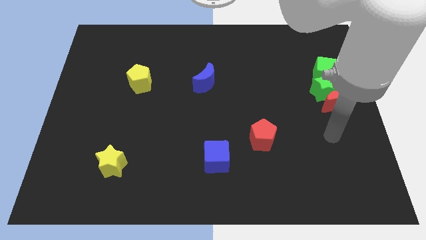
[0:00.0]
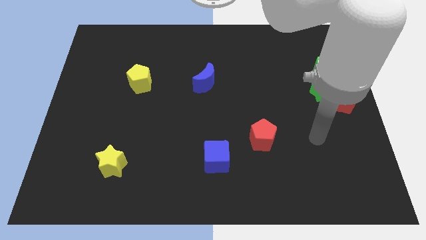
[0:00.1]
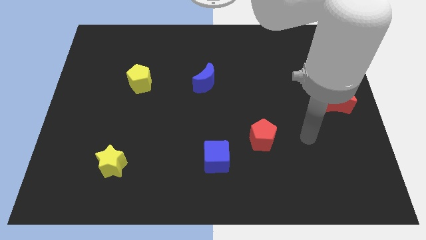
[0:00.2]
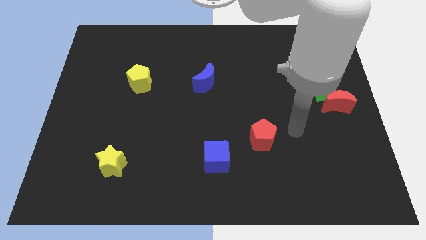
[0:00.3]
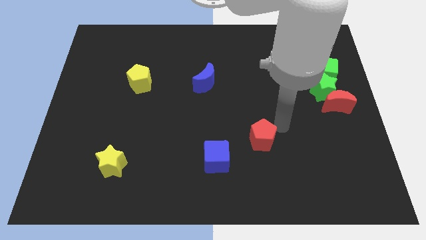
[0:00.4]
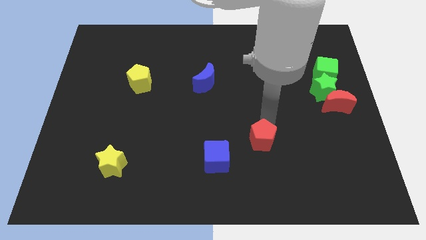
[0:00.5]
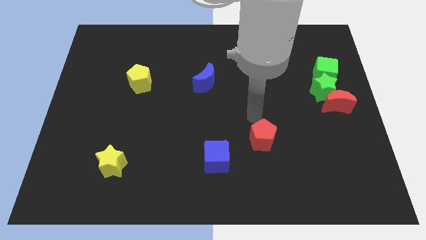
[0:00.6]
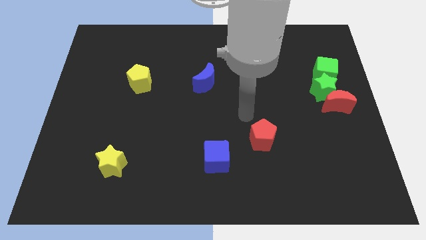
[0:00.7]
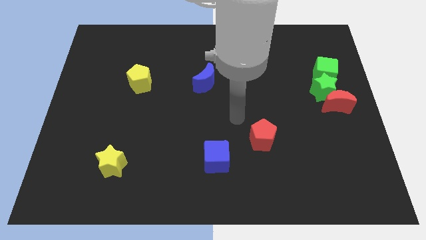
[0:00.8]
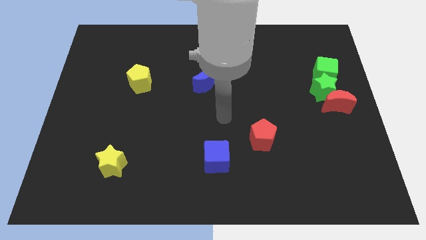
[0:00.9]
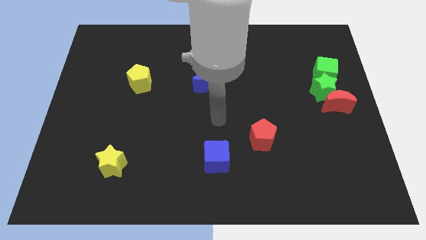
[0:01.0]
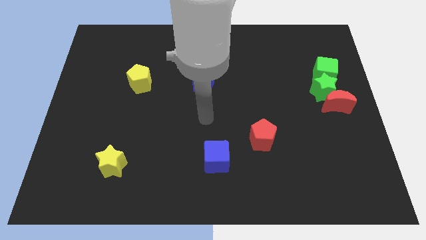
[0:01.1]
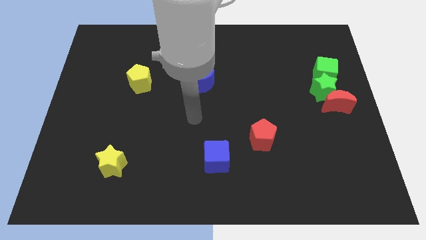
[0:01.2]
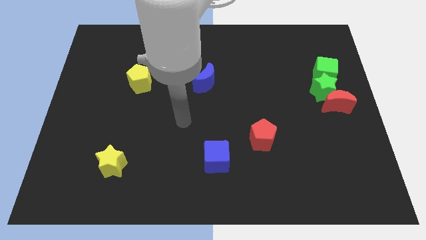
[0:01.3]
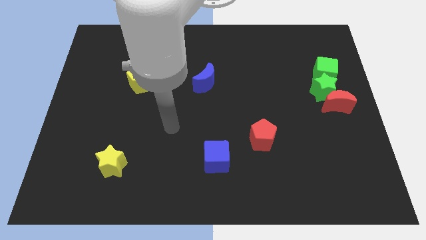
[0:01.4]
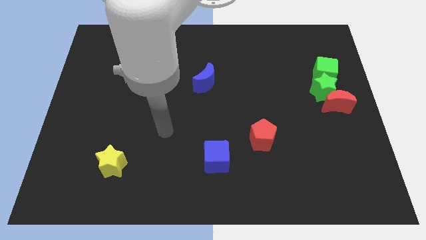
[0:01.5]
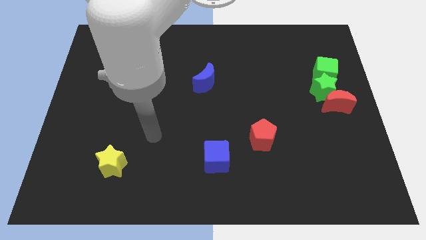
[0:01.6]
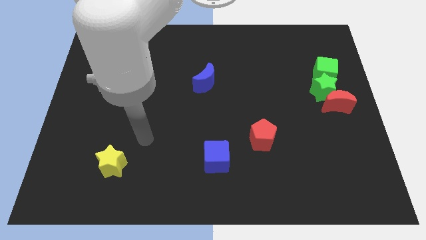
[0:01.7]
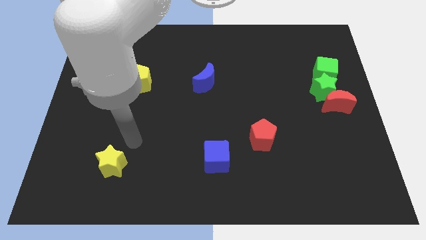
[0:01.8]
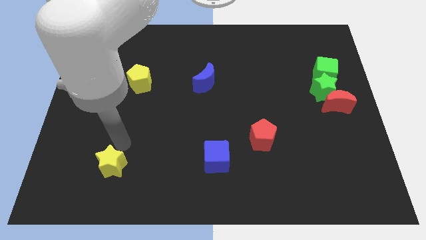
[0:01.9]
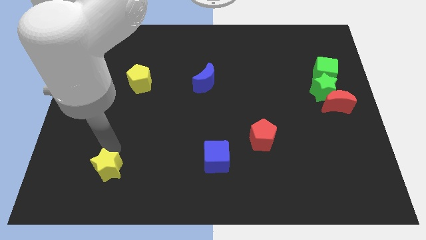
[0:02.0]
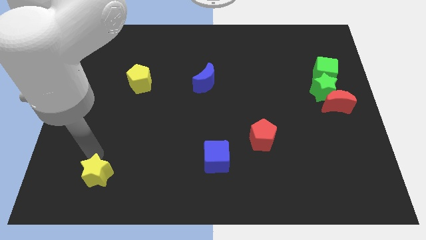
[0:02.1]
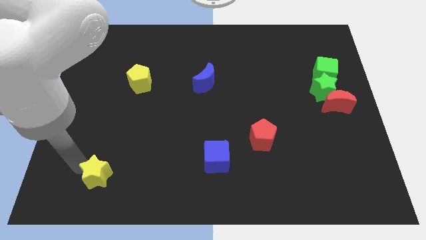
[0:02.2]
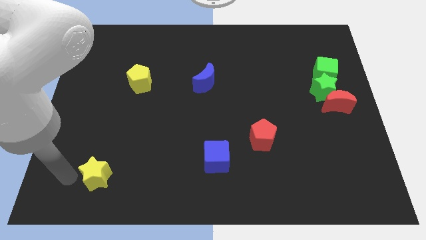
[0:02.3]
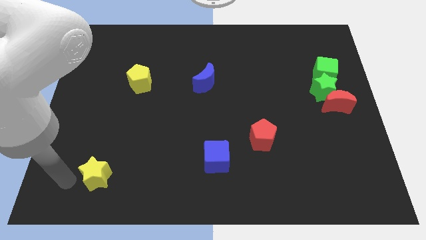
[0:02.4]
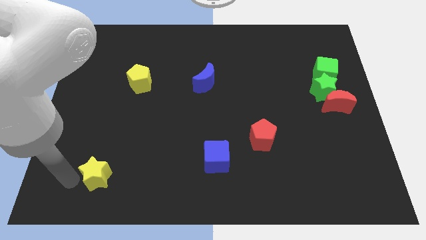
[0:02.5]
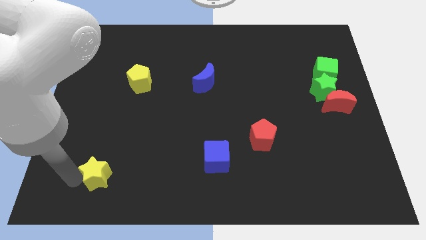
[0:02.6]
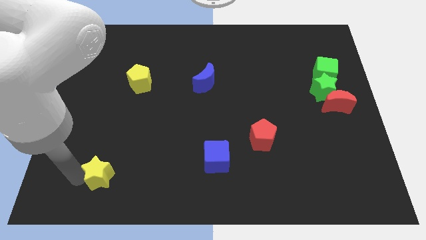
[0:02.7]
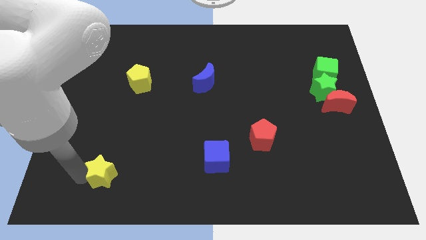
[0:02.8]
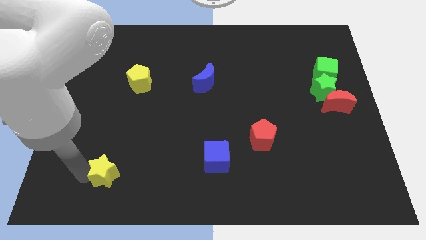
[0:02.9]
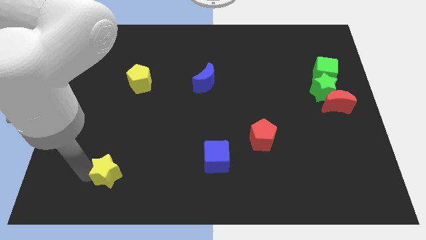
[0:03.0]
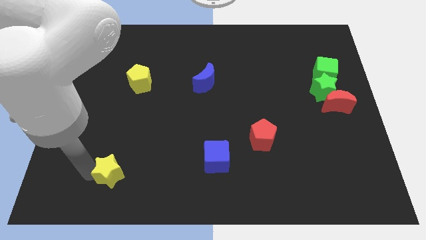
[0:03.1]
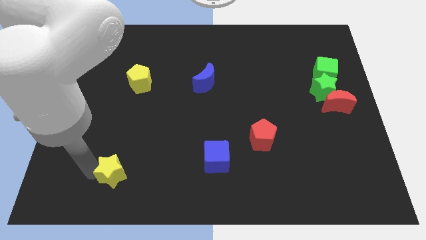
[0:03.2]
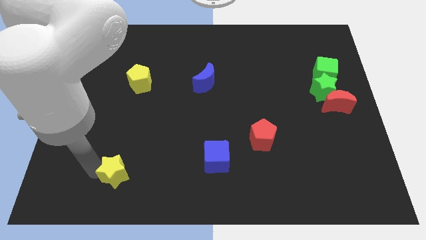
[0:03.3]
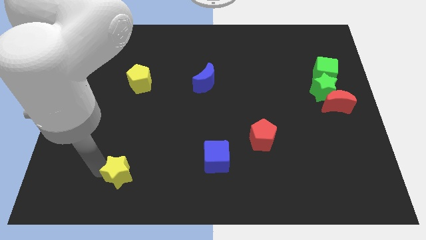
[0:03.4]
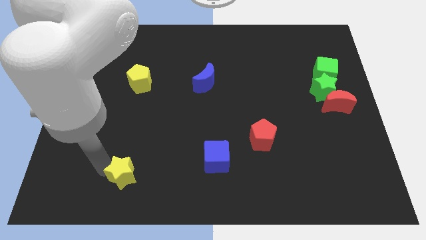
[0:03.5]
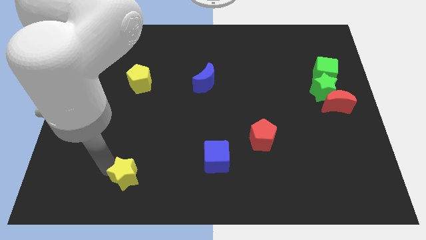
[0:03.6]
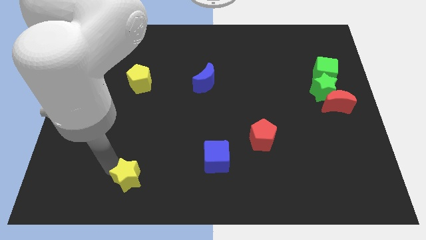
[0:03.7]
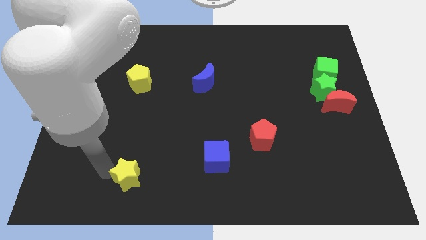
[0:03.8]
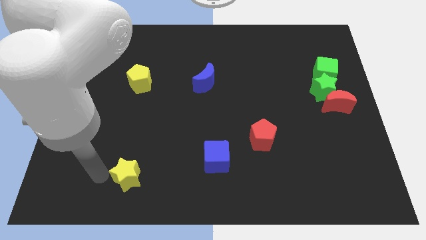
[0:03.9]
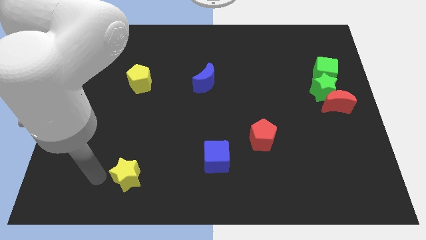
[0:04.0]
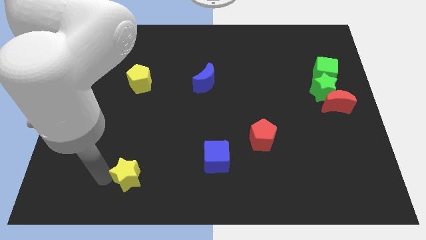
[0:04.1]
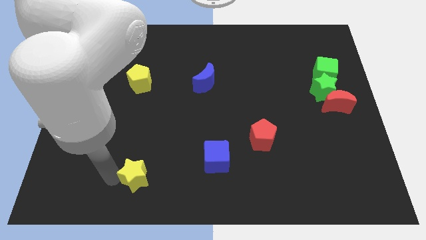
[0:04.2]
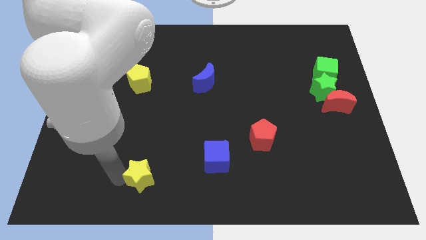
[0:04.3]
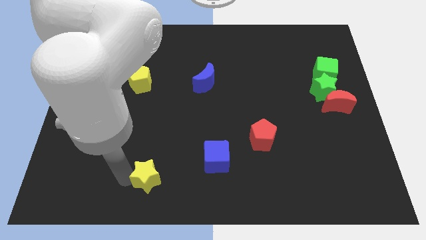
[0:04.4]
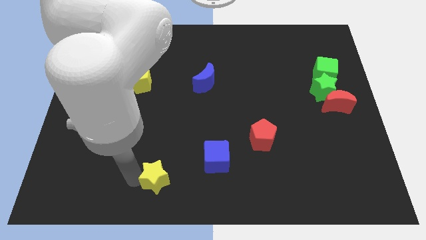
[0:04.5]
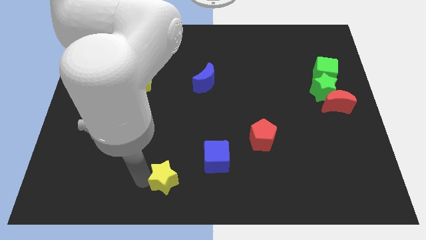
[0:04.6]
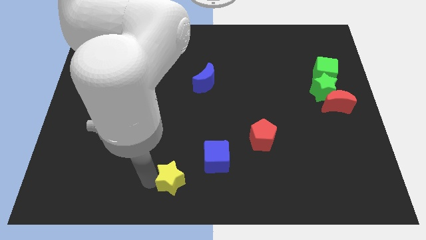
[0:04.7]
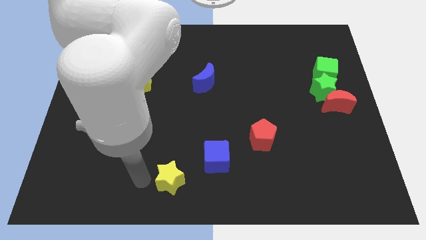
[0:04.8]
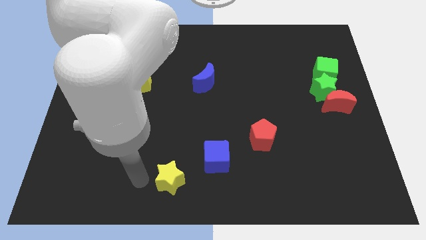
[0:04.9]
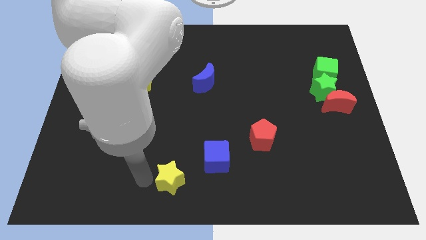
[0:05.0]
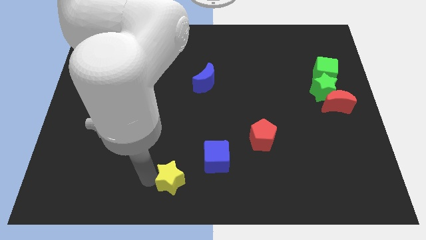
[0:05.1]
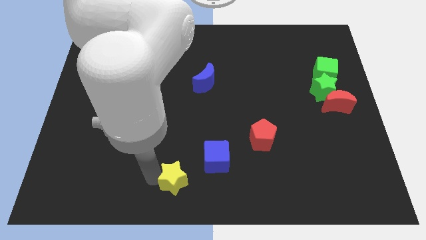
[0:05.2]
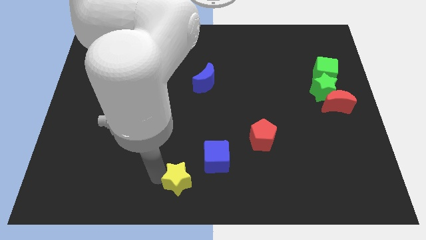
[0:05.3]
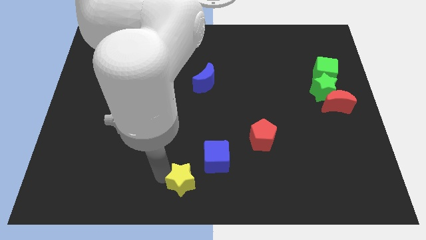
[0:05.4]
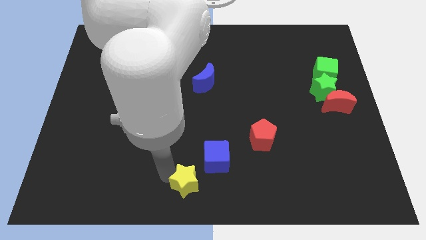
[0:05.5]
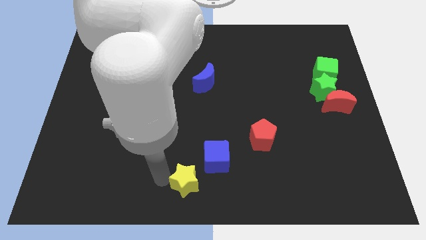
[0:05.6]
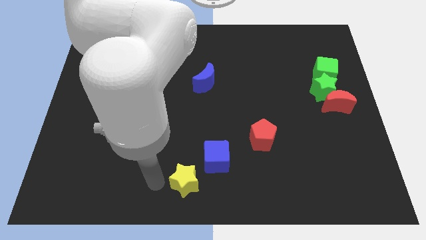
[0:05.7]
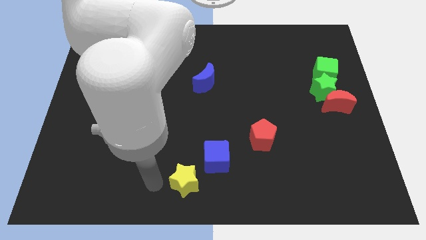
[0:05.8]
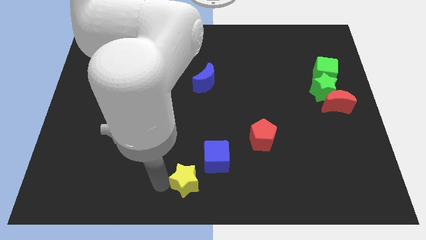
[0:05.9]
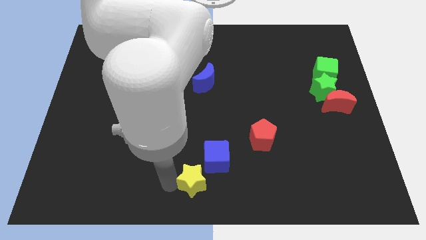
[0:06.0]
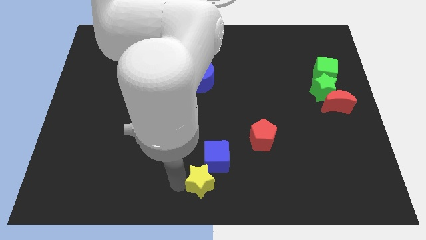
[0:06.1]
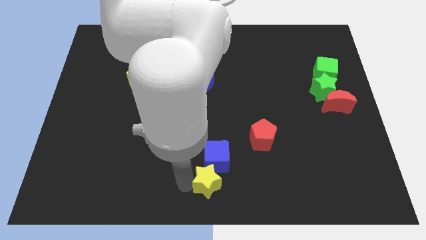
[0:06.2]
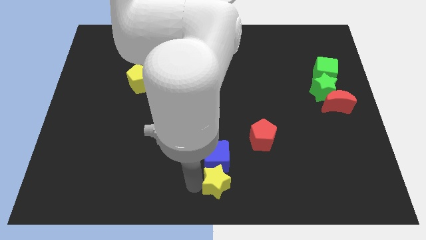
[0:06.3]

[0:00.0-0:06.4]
move the yellow star to the bottom right of the blue cube

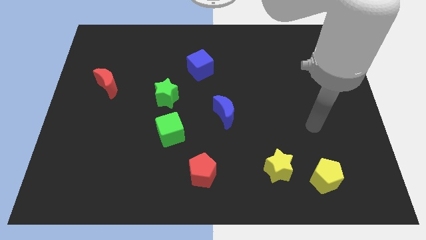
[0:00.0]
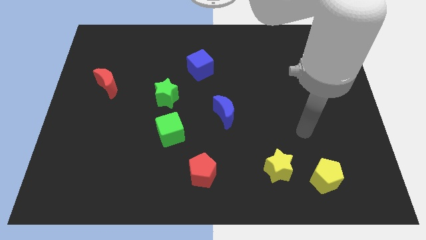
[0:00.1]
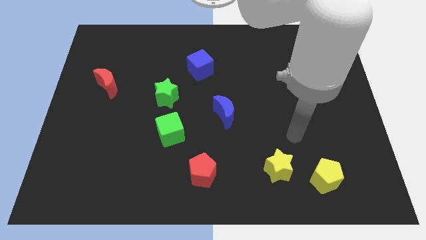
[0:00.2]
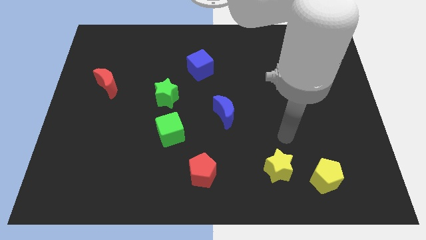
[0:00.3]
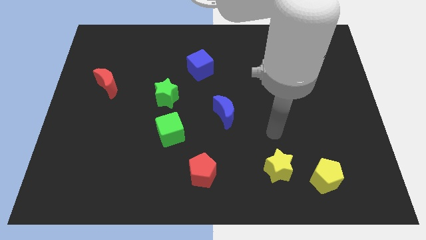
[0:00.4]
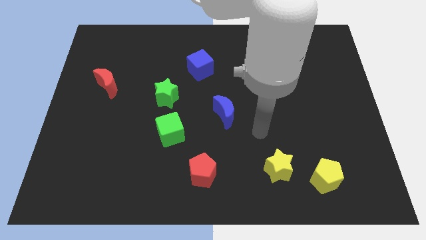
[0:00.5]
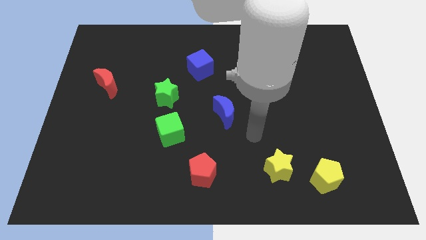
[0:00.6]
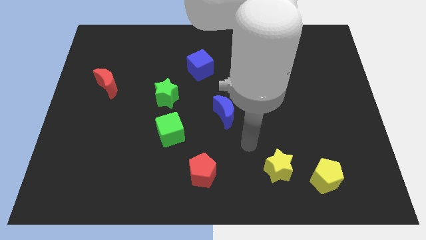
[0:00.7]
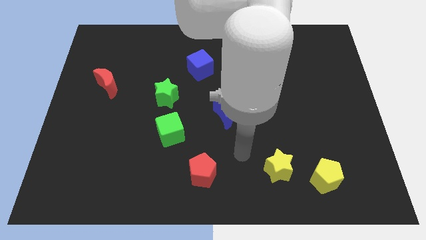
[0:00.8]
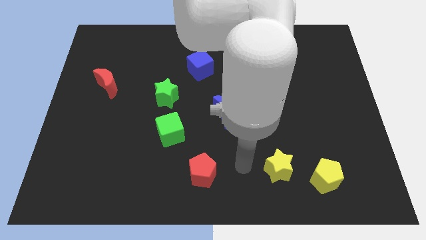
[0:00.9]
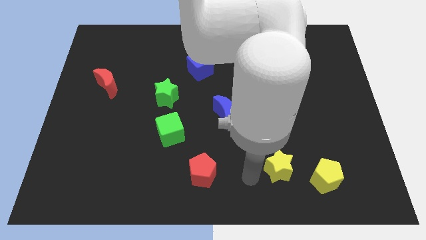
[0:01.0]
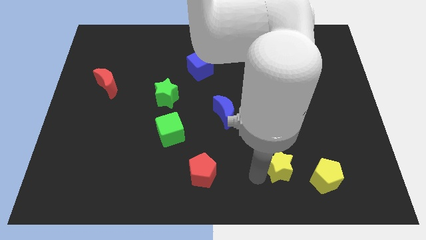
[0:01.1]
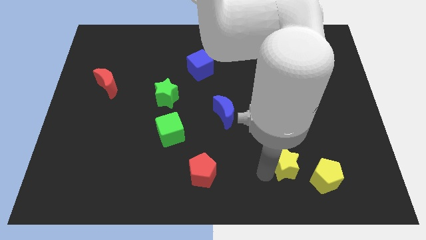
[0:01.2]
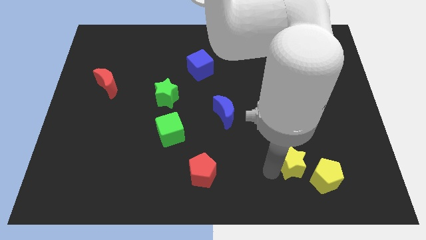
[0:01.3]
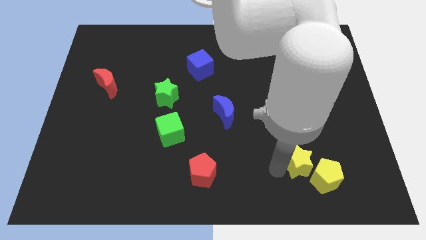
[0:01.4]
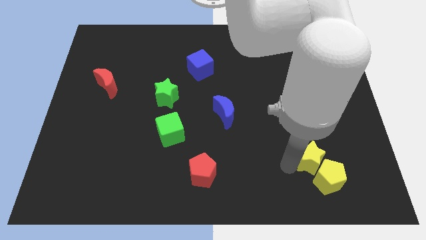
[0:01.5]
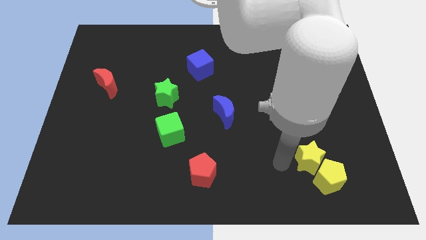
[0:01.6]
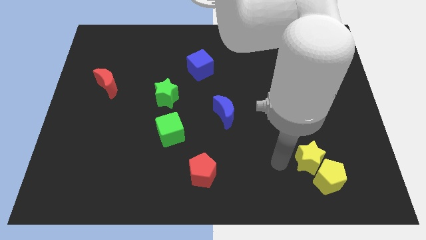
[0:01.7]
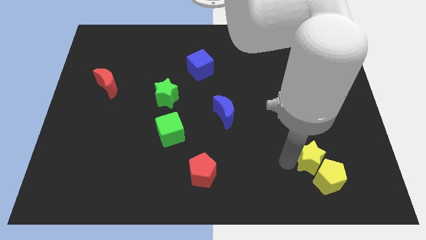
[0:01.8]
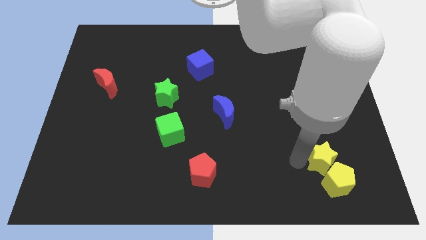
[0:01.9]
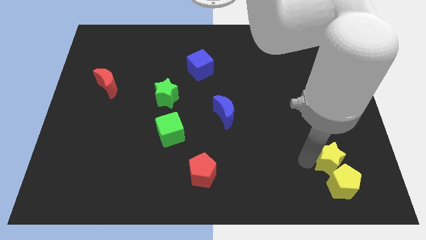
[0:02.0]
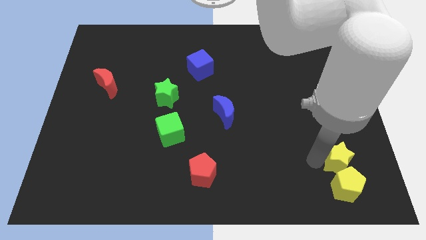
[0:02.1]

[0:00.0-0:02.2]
slide the yellow star diagonally up and to the right of the yellow pentagon
